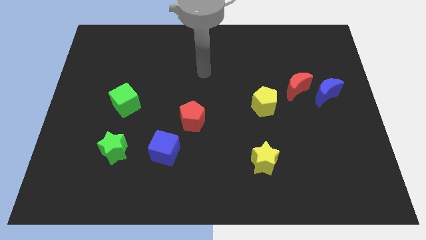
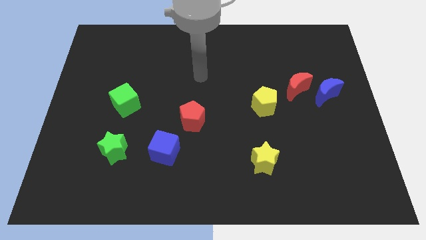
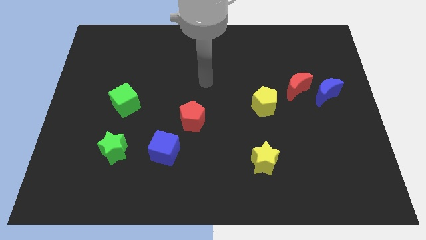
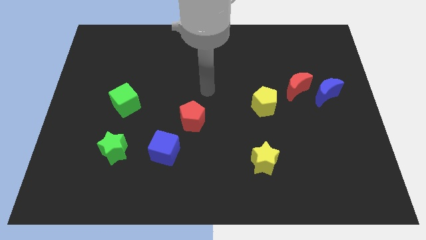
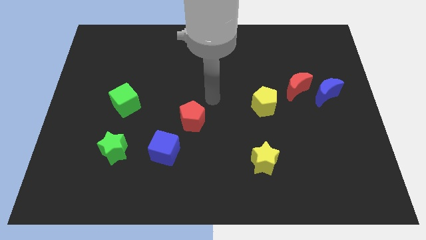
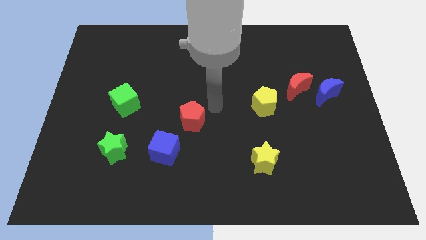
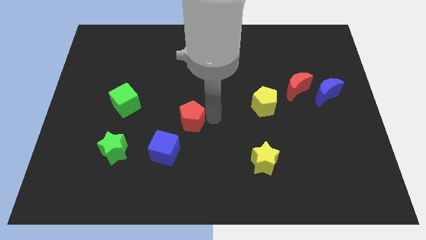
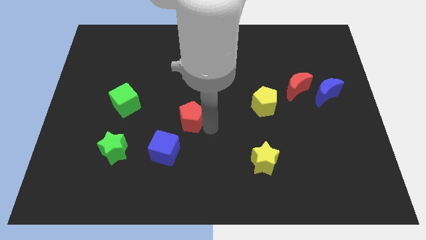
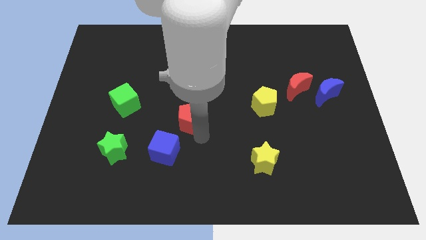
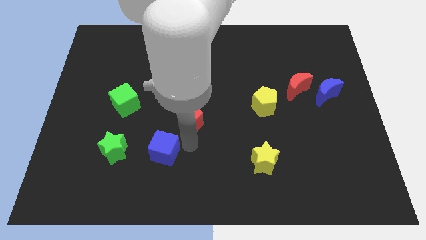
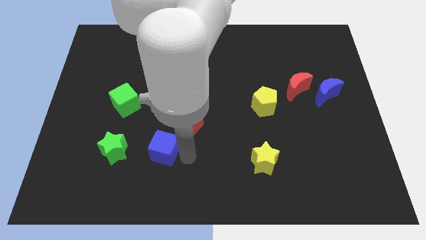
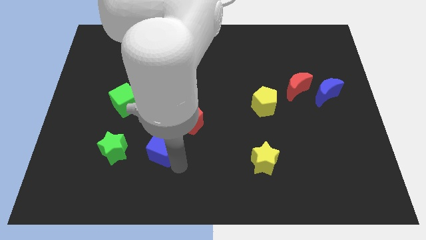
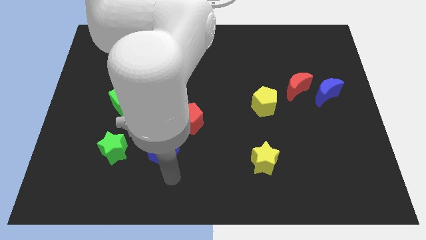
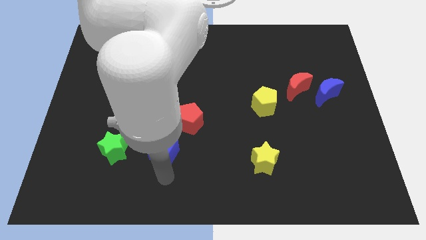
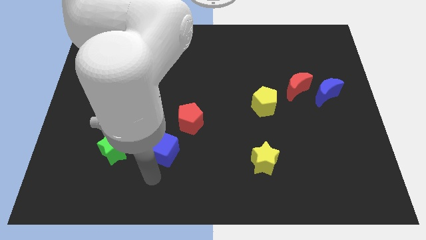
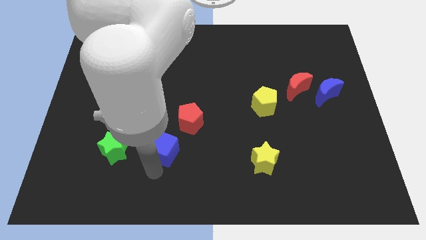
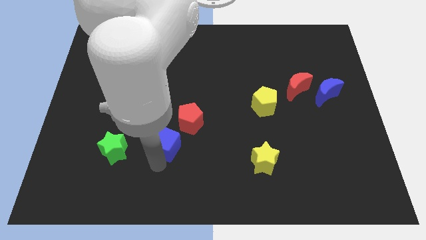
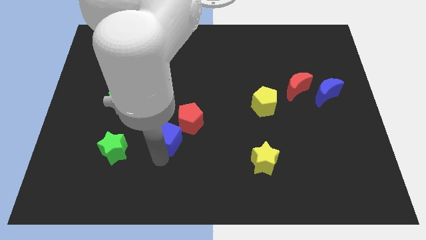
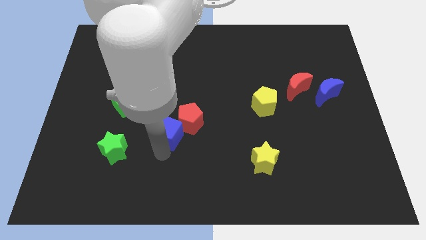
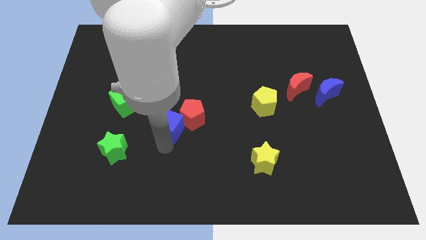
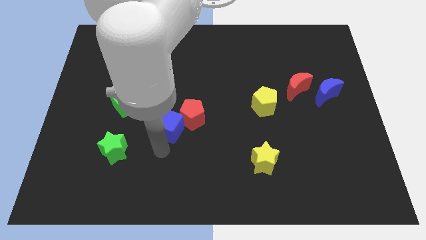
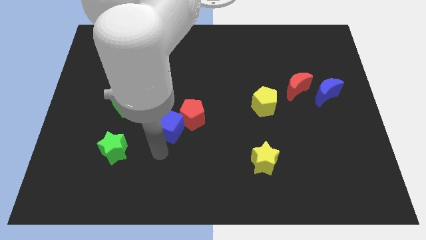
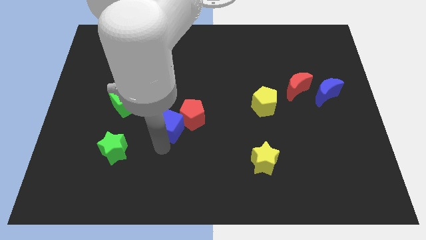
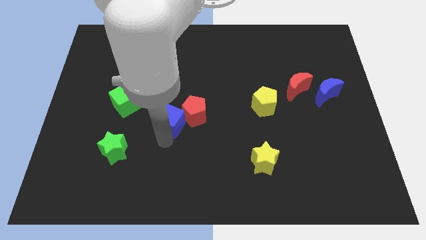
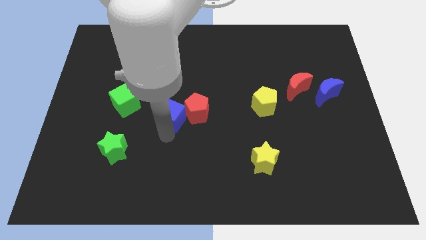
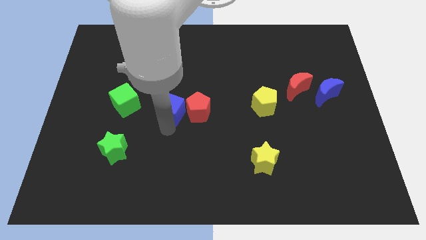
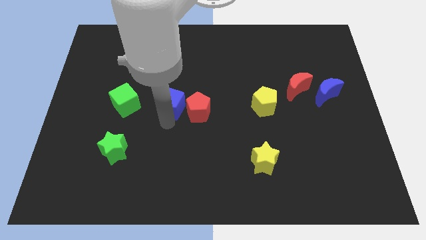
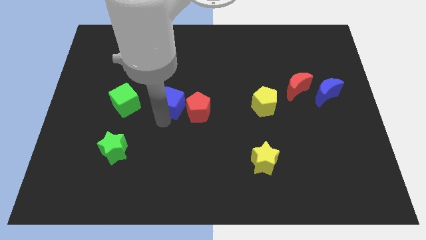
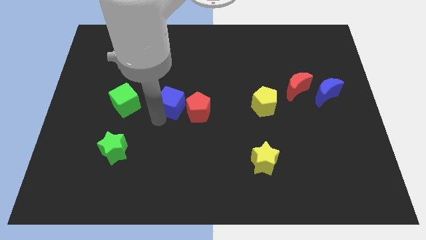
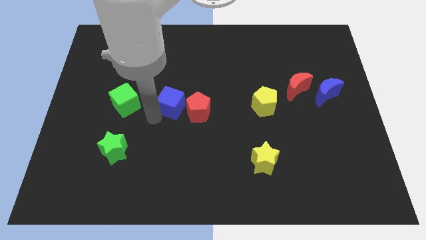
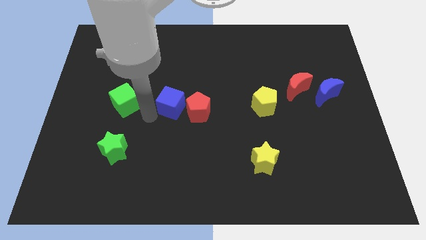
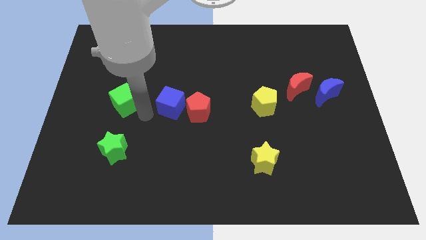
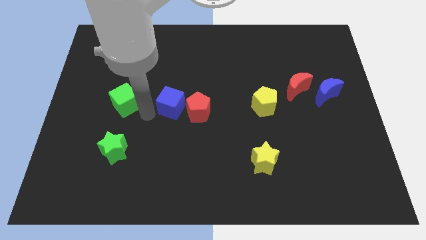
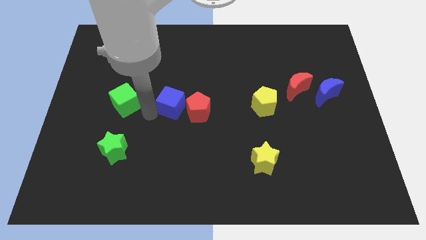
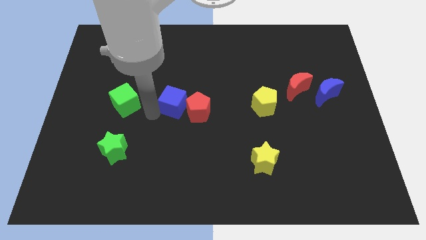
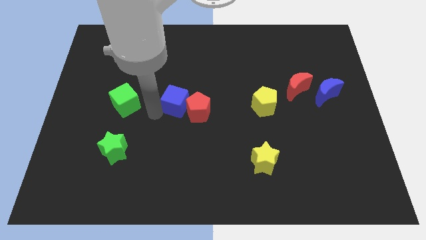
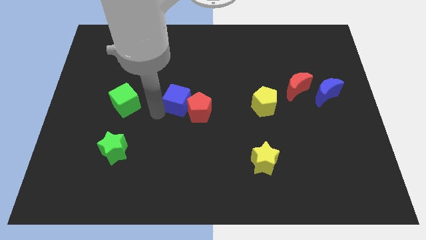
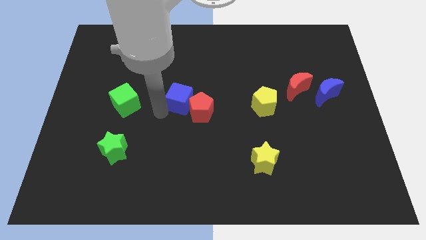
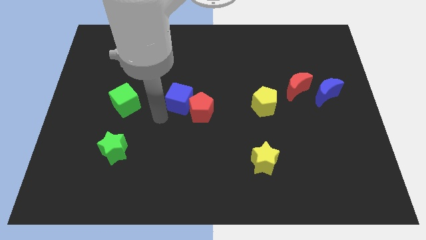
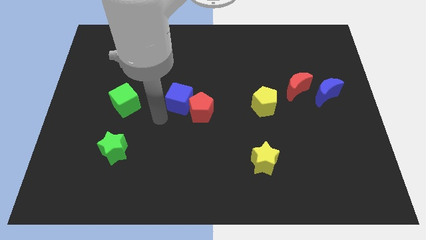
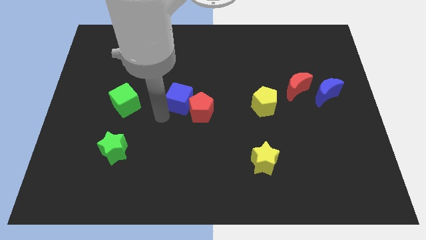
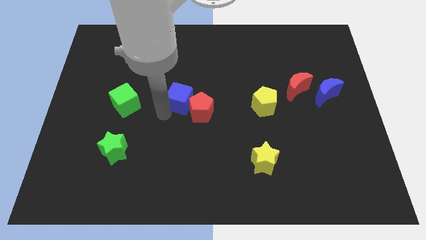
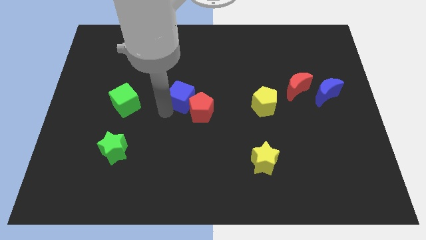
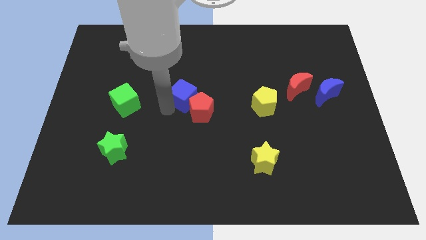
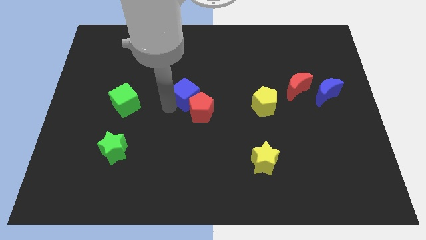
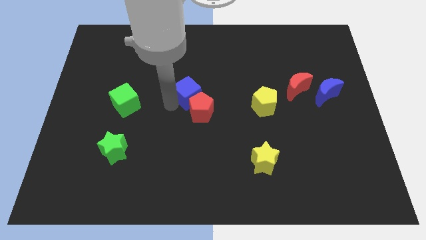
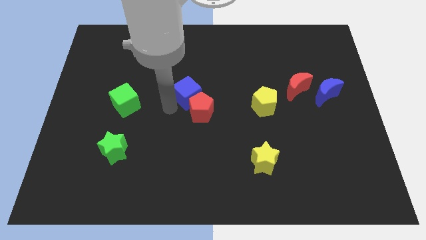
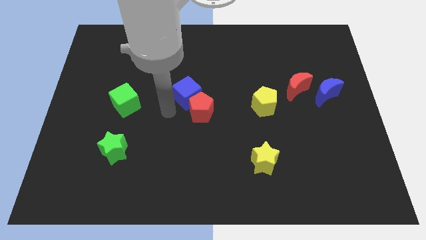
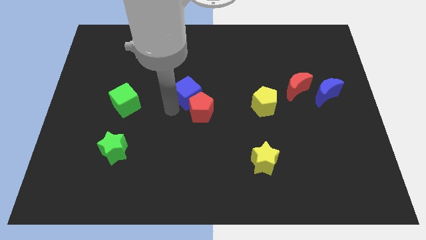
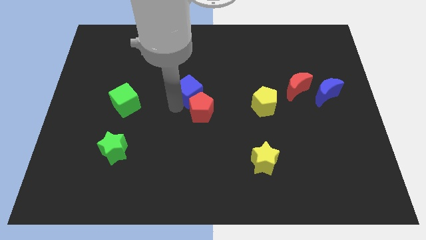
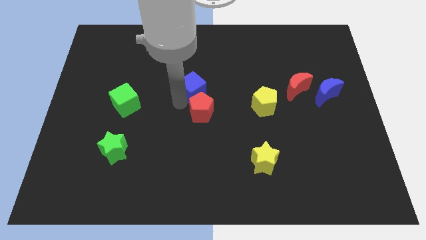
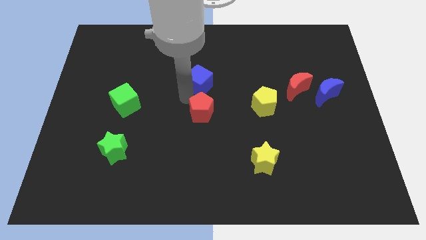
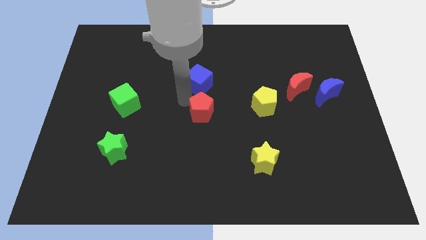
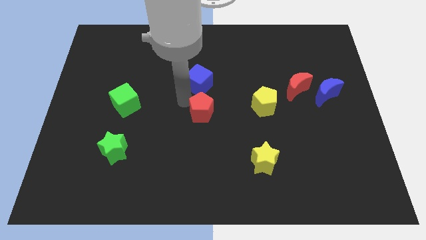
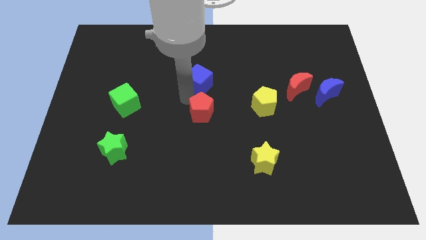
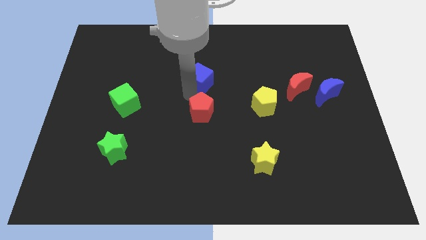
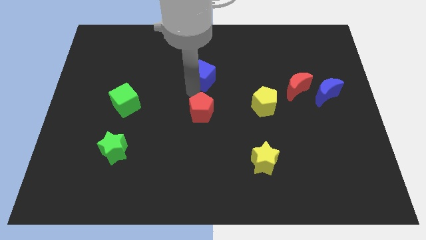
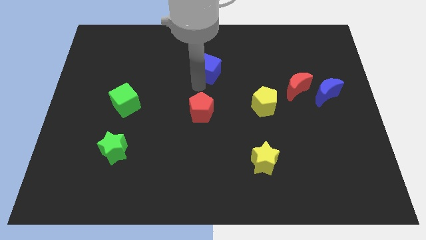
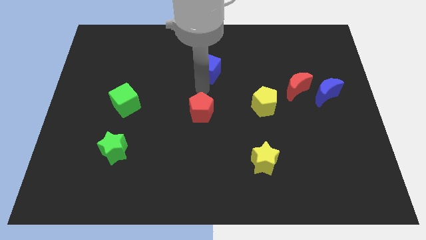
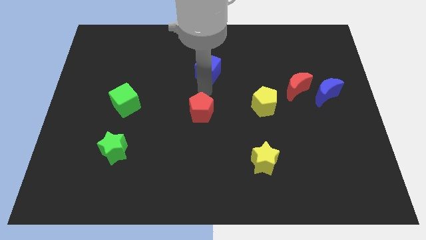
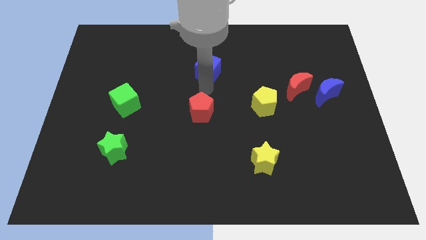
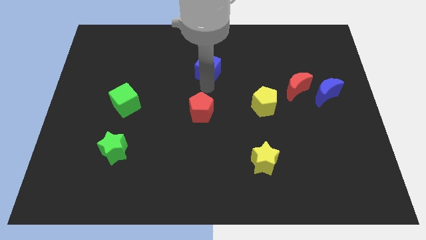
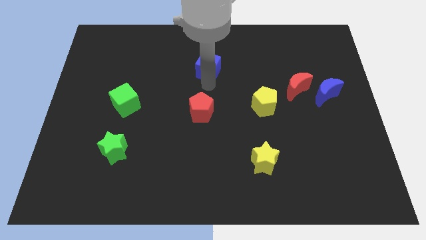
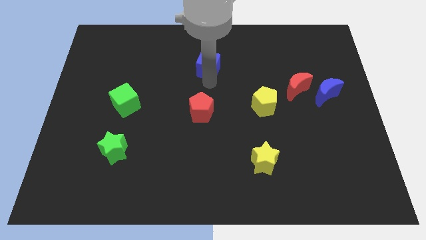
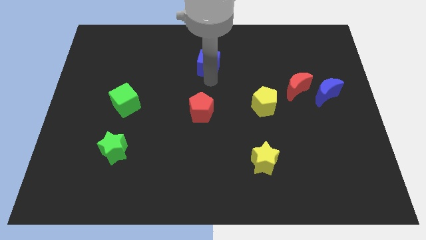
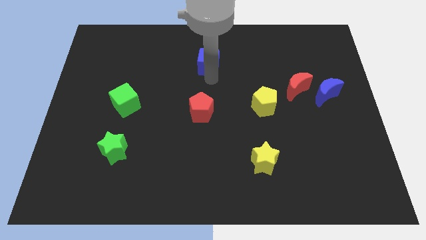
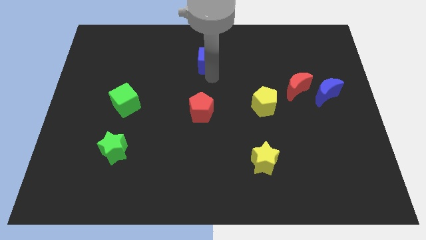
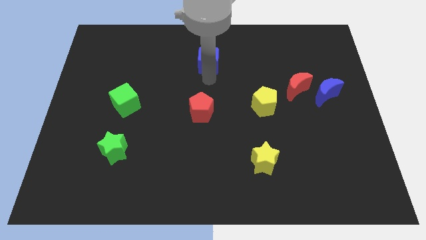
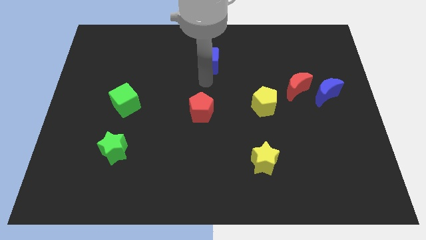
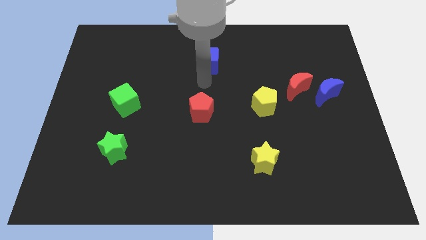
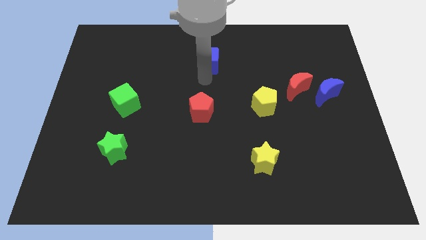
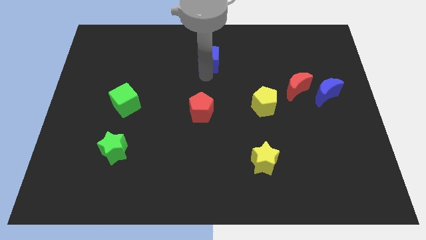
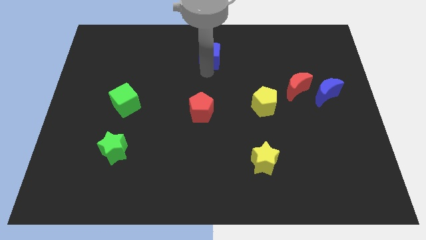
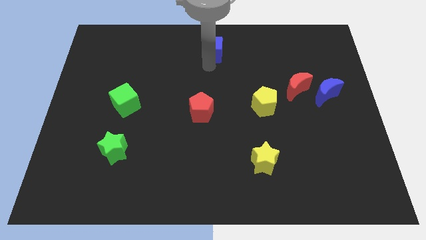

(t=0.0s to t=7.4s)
push the blue cube to the towards your base
